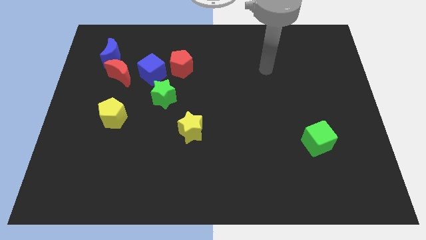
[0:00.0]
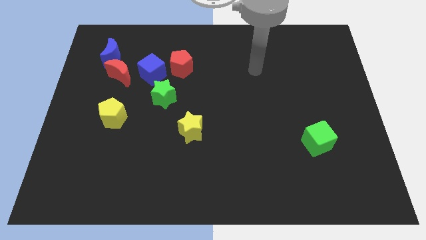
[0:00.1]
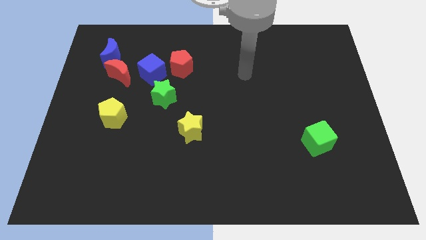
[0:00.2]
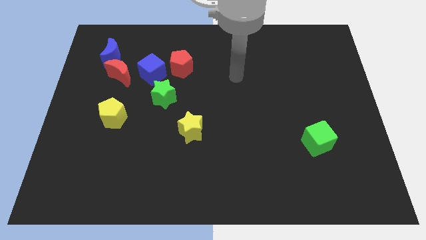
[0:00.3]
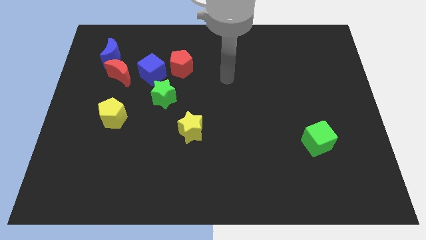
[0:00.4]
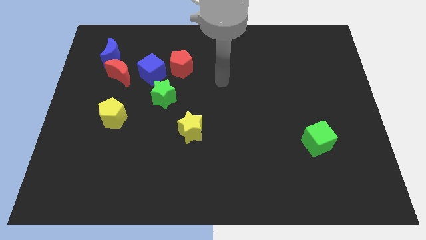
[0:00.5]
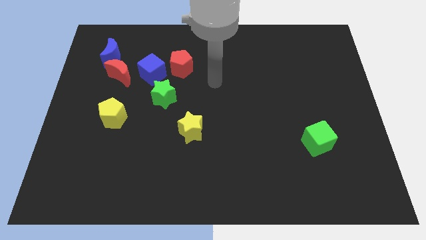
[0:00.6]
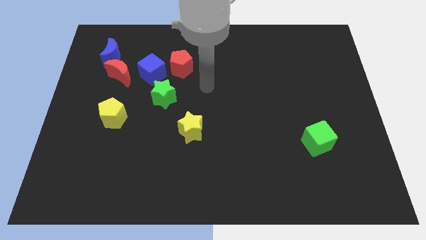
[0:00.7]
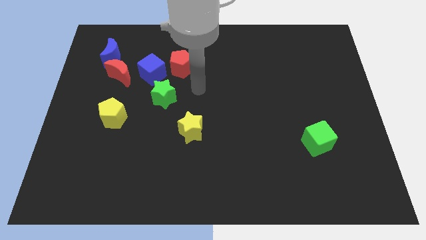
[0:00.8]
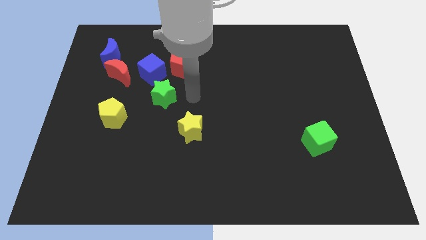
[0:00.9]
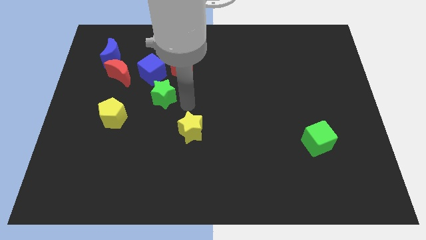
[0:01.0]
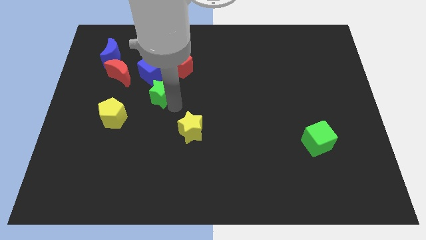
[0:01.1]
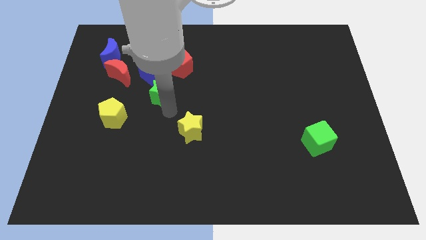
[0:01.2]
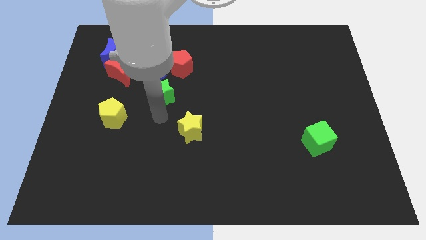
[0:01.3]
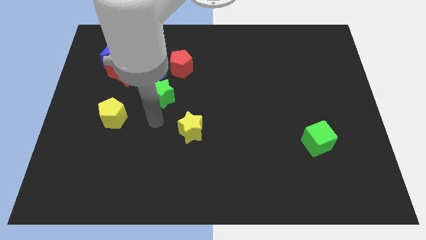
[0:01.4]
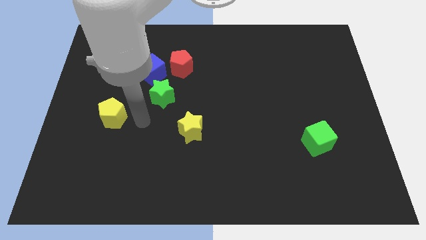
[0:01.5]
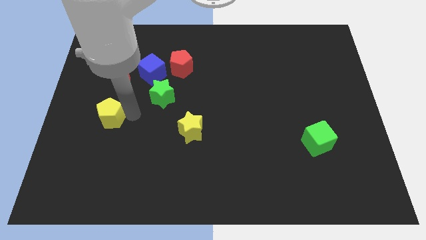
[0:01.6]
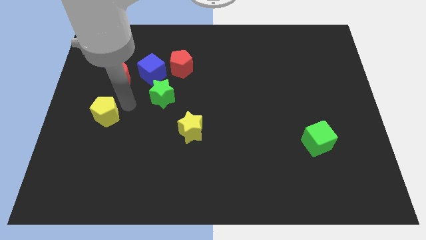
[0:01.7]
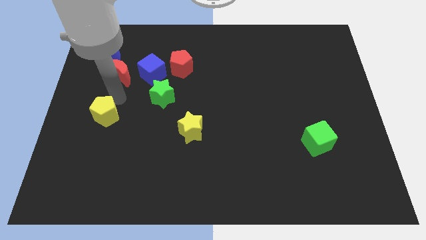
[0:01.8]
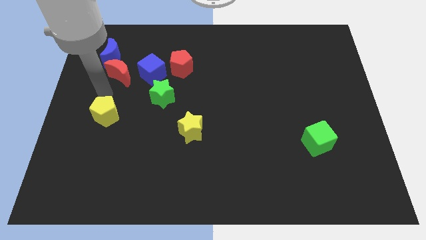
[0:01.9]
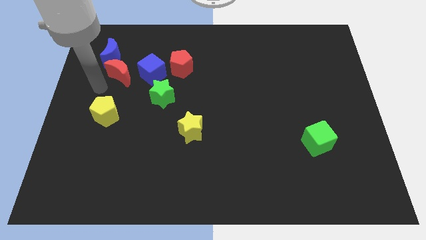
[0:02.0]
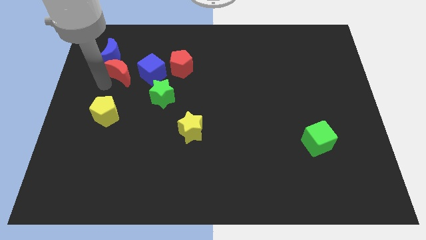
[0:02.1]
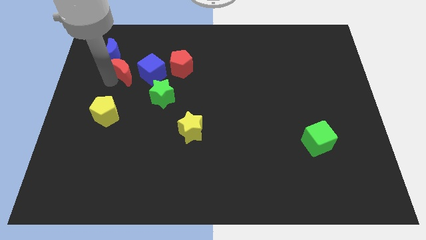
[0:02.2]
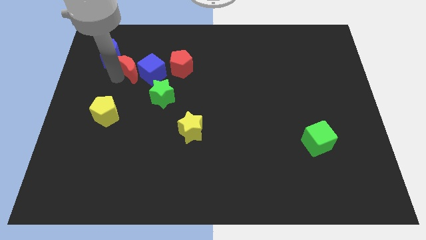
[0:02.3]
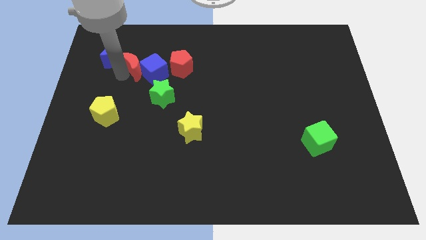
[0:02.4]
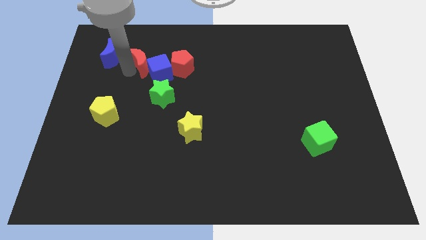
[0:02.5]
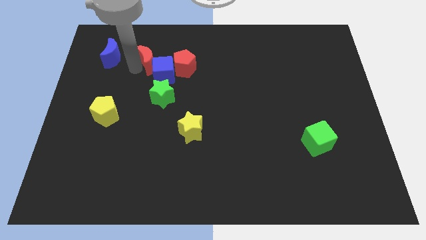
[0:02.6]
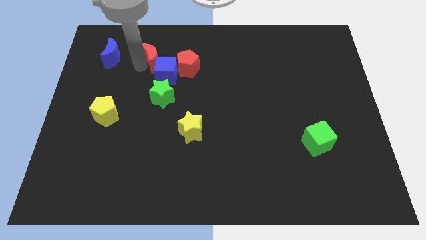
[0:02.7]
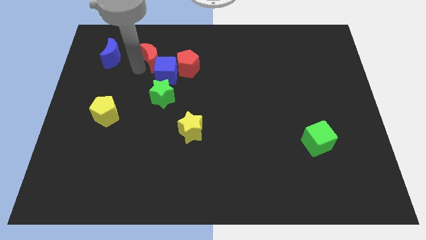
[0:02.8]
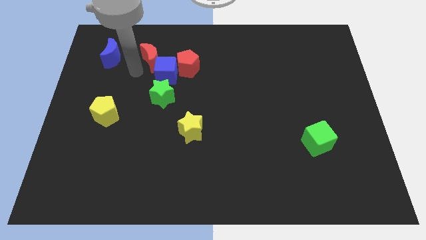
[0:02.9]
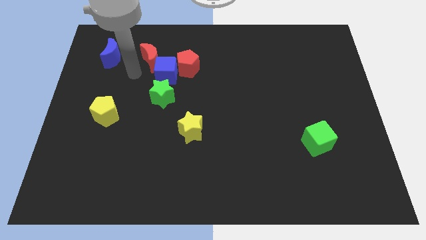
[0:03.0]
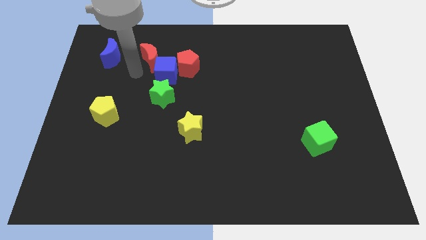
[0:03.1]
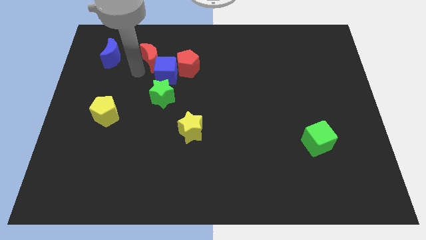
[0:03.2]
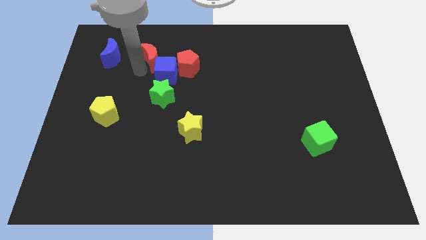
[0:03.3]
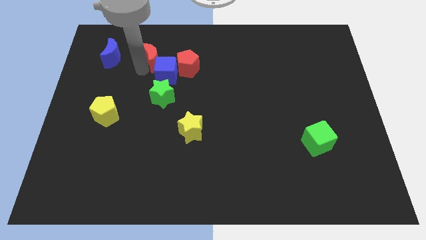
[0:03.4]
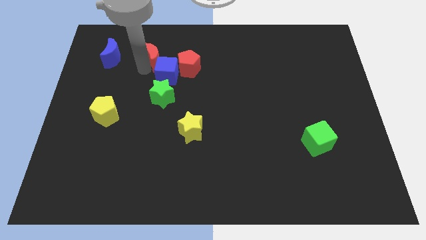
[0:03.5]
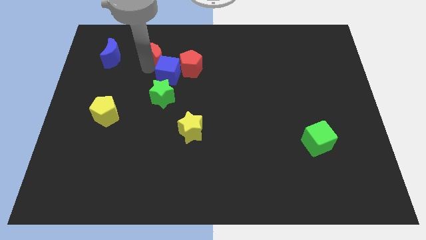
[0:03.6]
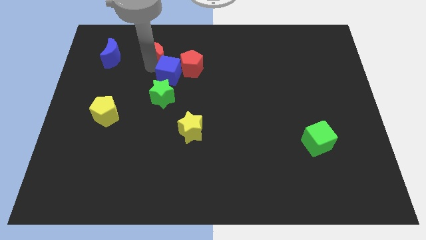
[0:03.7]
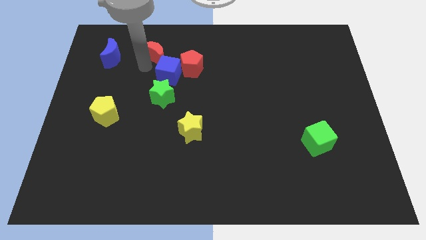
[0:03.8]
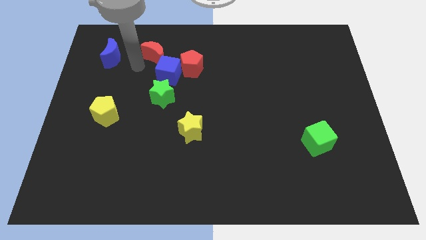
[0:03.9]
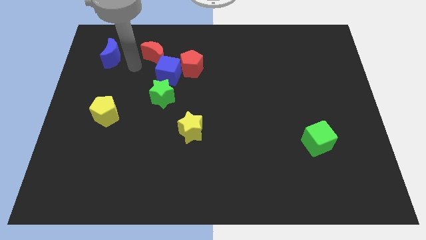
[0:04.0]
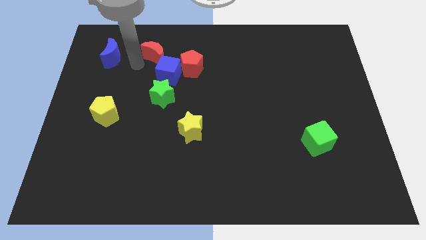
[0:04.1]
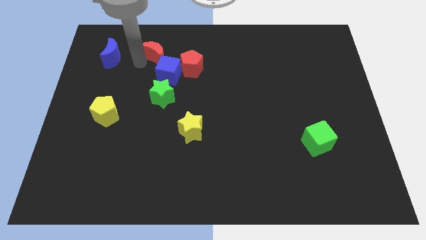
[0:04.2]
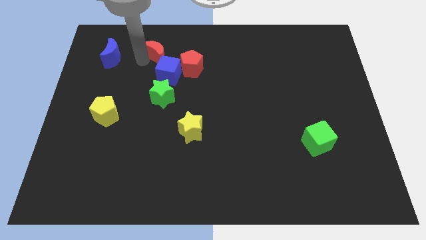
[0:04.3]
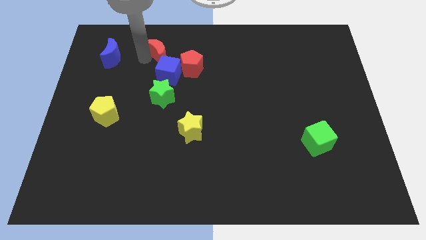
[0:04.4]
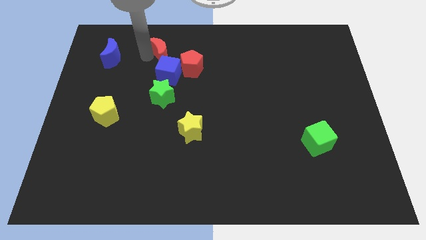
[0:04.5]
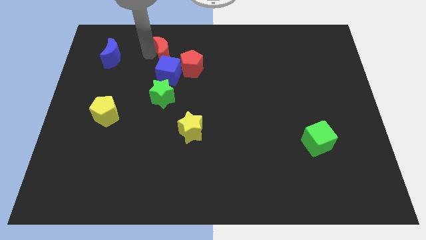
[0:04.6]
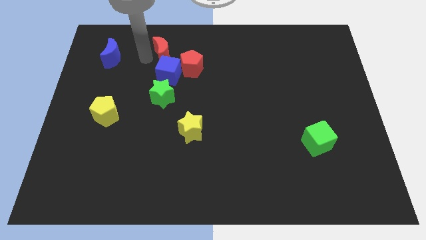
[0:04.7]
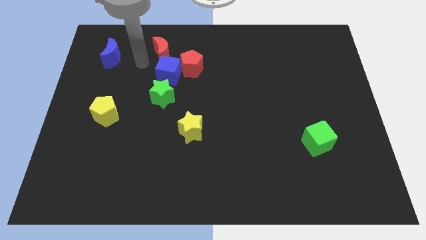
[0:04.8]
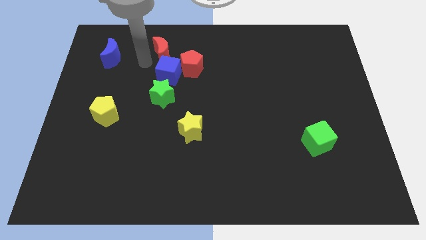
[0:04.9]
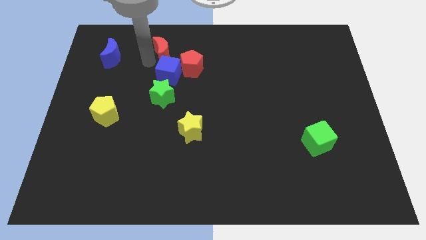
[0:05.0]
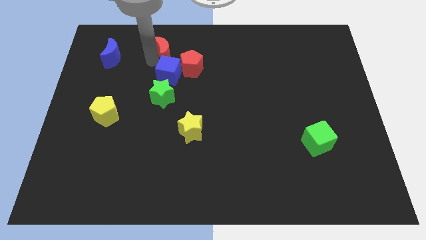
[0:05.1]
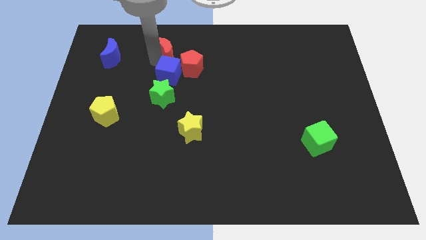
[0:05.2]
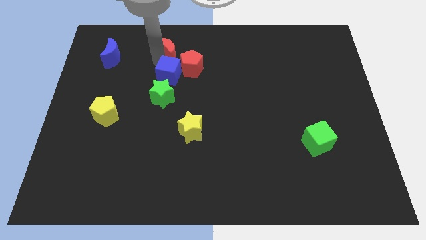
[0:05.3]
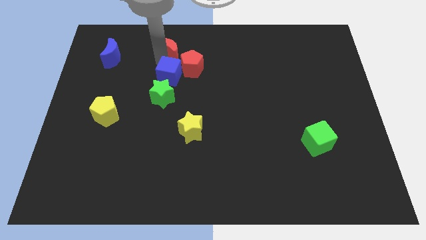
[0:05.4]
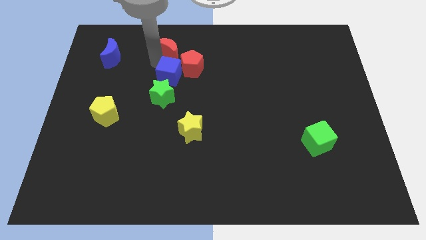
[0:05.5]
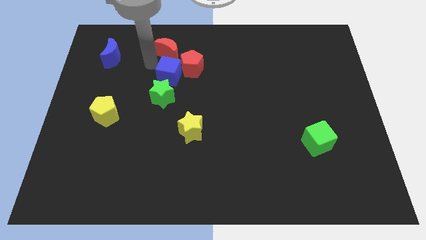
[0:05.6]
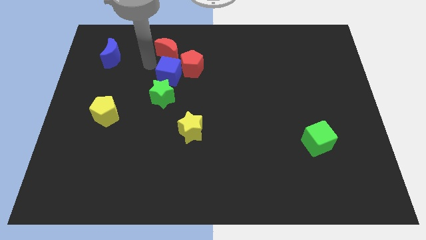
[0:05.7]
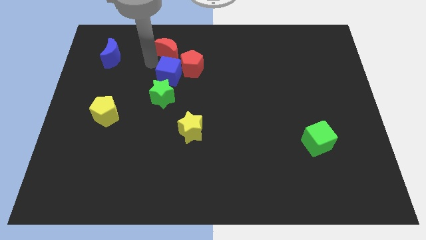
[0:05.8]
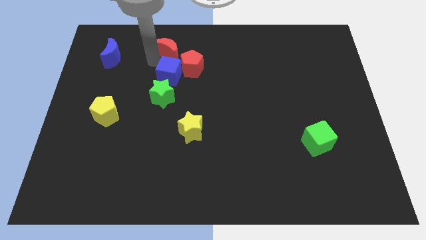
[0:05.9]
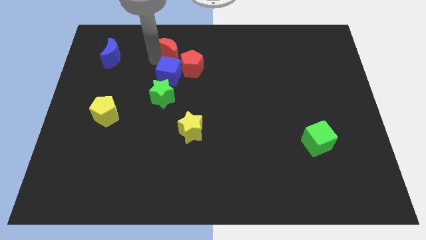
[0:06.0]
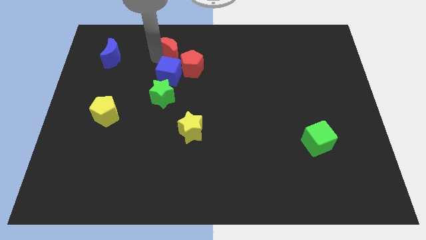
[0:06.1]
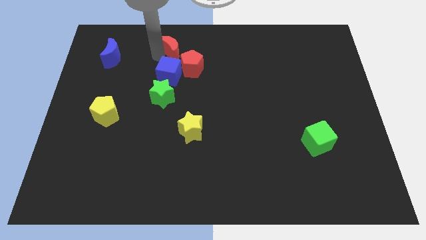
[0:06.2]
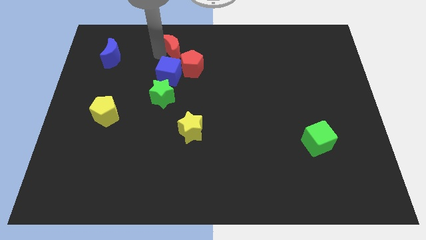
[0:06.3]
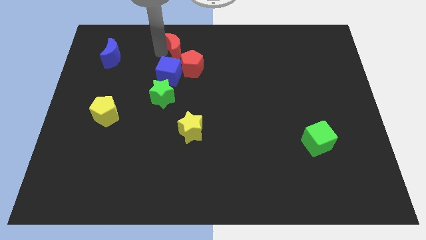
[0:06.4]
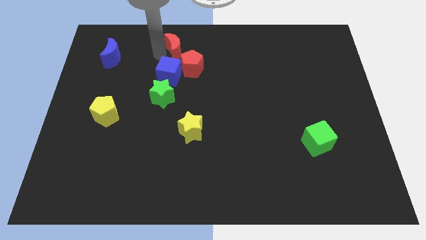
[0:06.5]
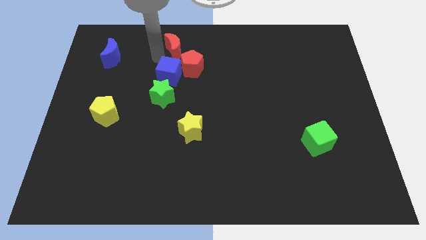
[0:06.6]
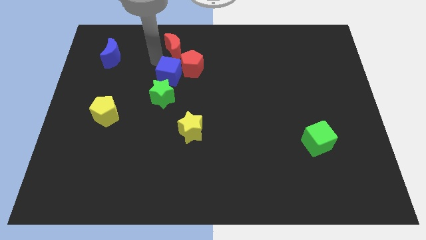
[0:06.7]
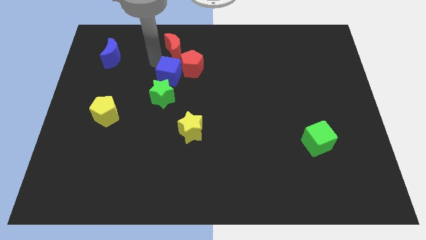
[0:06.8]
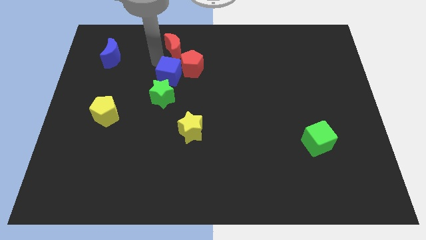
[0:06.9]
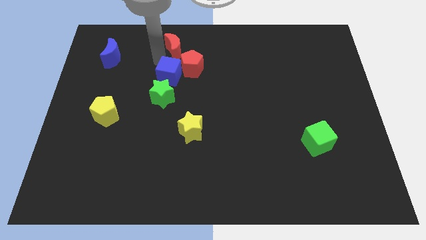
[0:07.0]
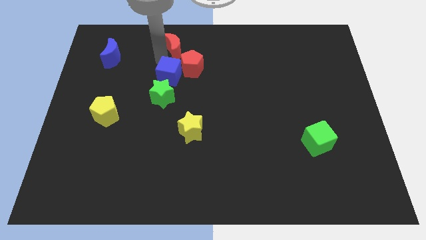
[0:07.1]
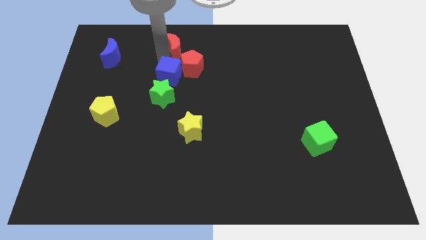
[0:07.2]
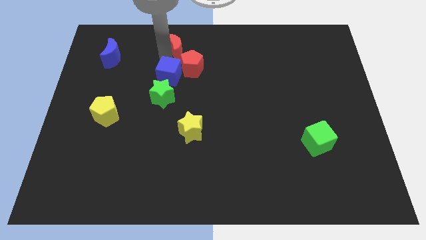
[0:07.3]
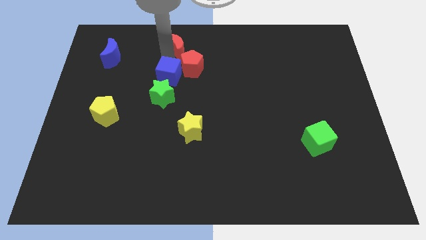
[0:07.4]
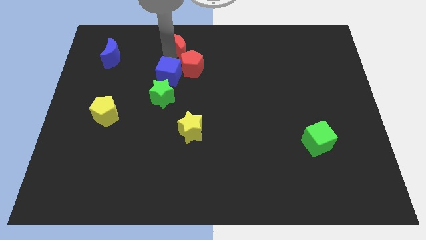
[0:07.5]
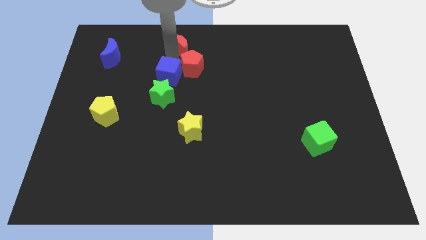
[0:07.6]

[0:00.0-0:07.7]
move the red moon to the towards your base
